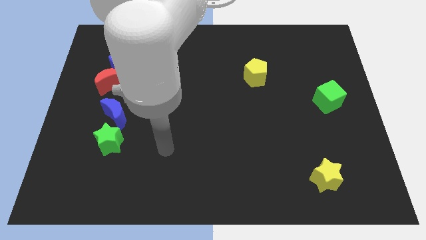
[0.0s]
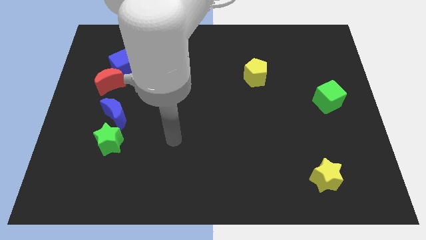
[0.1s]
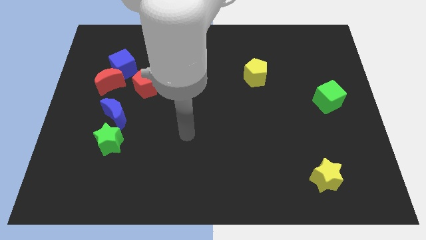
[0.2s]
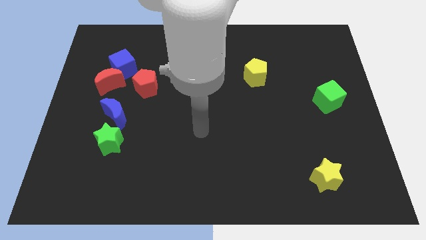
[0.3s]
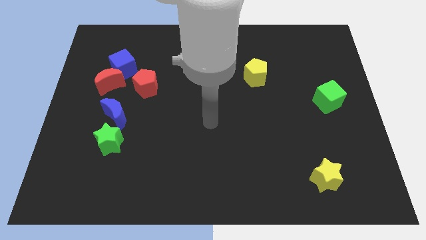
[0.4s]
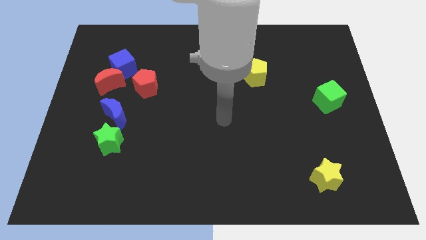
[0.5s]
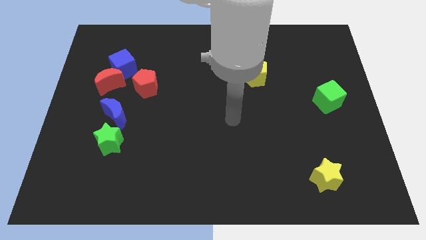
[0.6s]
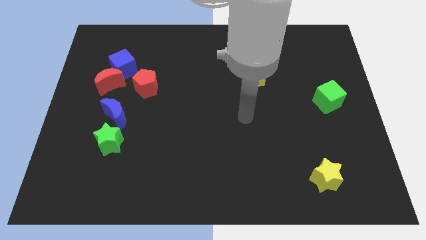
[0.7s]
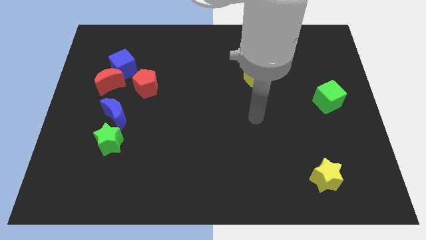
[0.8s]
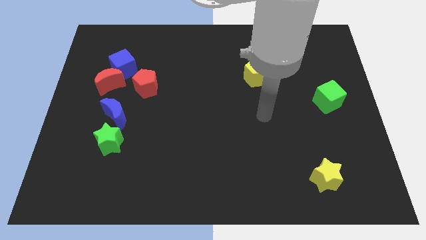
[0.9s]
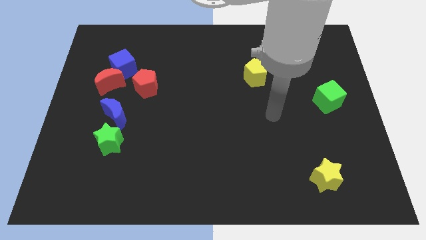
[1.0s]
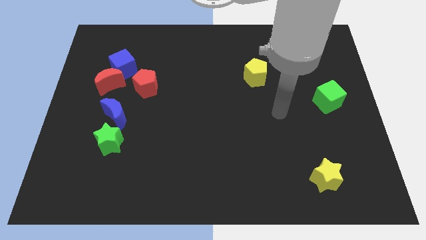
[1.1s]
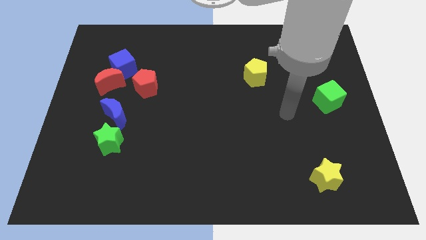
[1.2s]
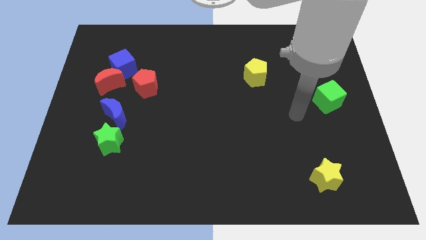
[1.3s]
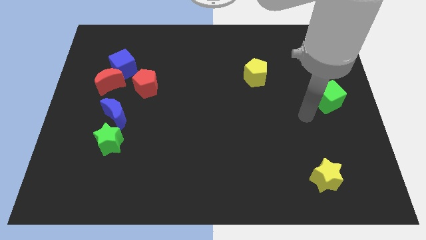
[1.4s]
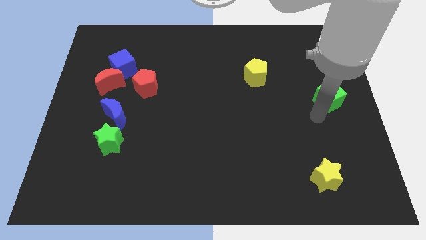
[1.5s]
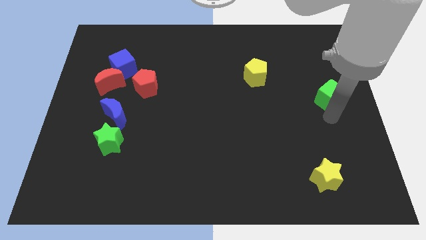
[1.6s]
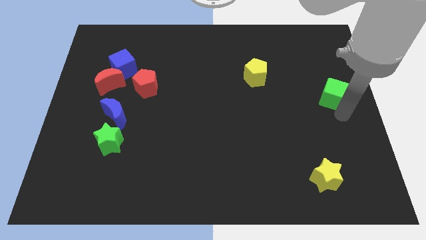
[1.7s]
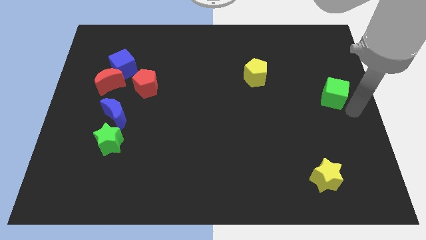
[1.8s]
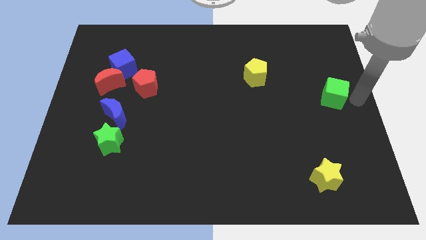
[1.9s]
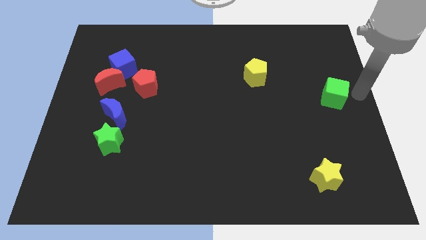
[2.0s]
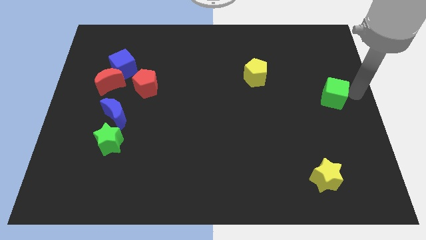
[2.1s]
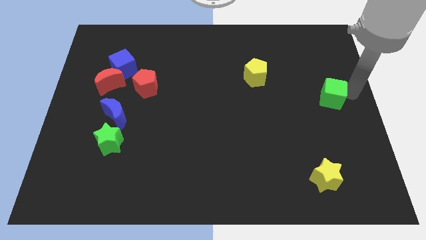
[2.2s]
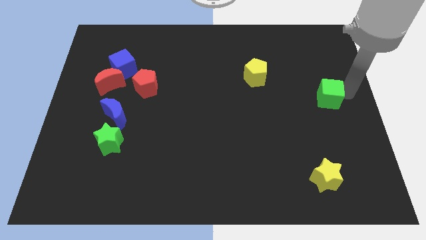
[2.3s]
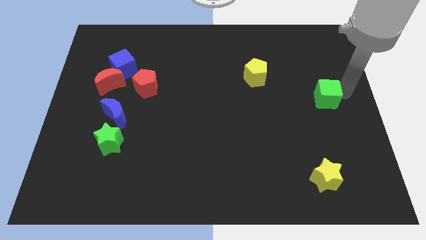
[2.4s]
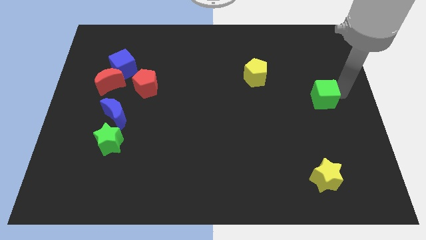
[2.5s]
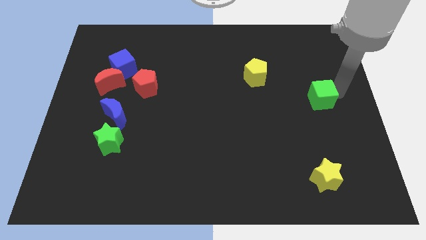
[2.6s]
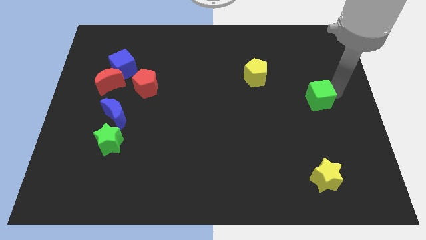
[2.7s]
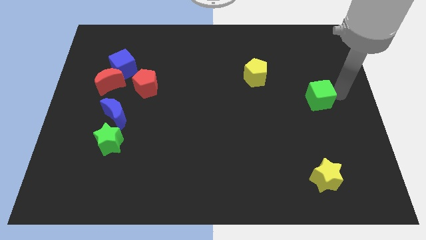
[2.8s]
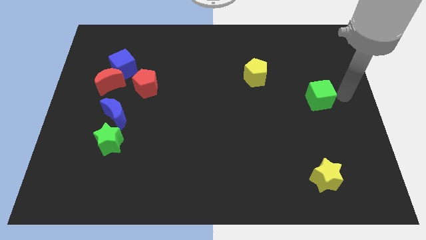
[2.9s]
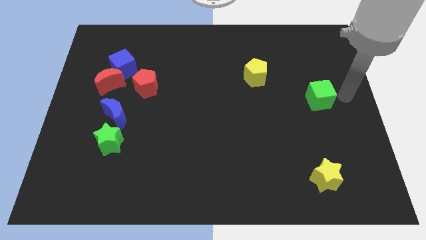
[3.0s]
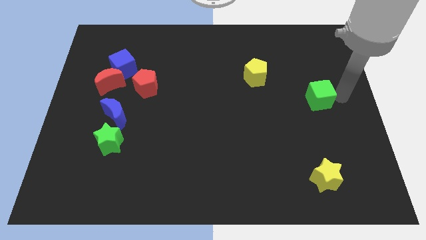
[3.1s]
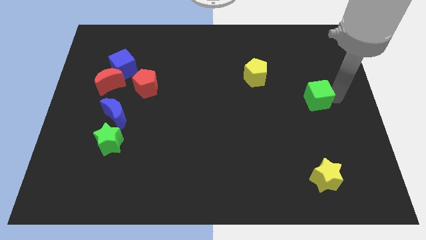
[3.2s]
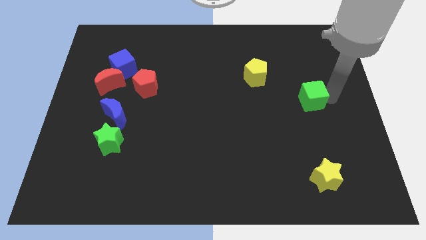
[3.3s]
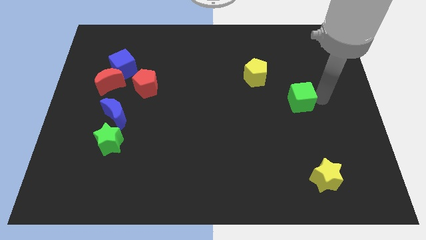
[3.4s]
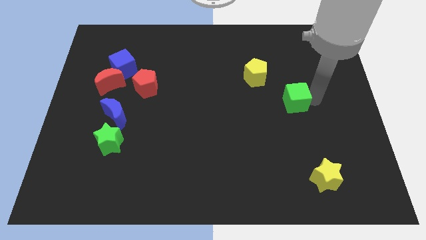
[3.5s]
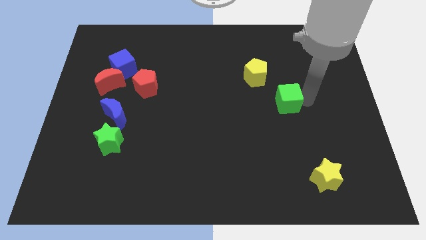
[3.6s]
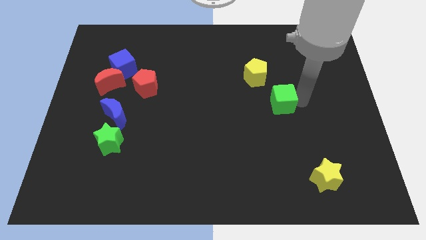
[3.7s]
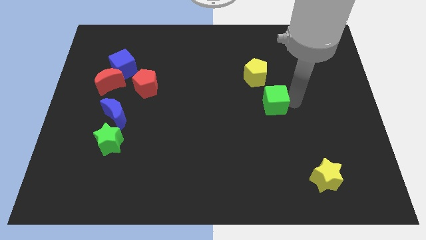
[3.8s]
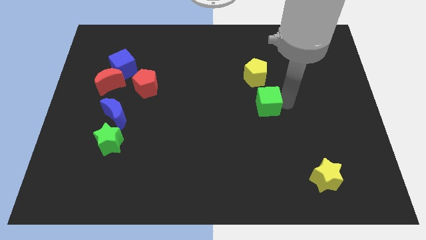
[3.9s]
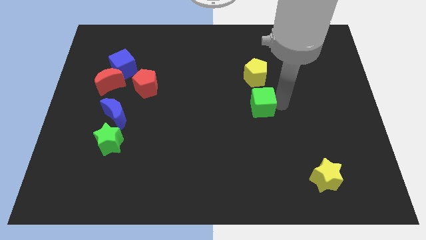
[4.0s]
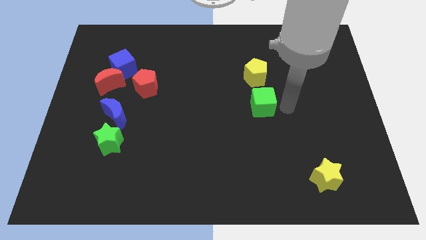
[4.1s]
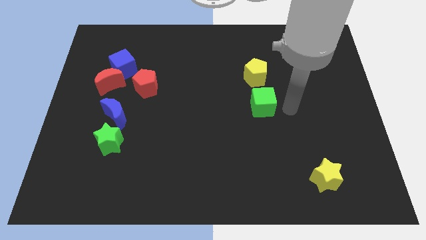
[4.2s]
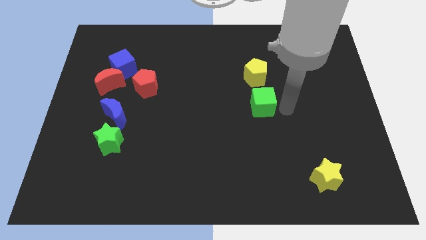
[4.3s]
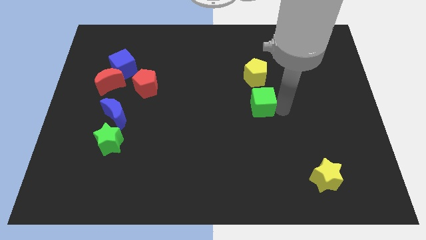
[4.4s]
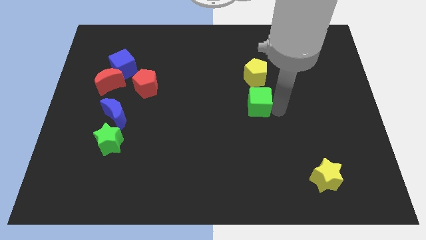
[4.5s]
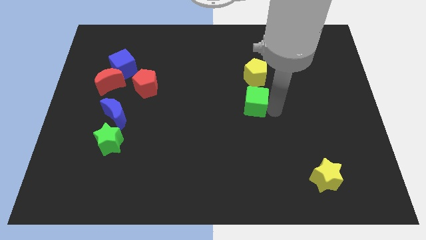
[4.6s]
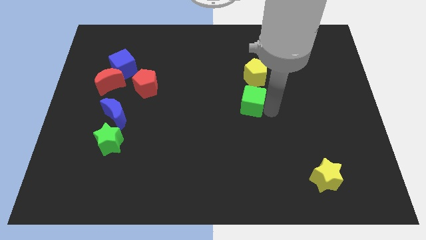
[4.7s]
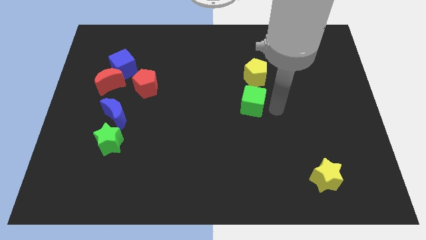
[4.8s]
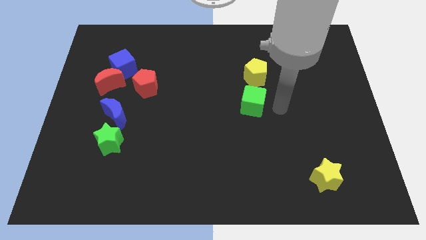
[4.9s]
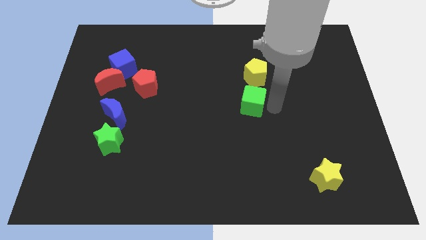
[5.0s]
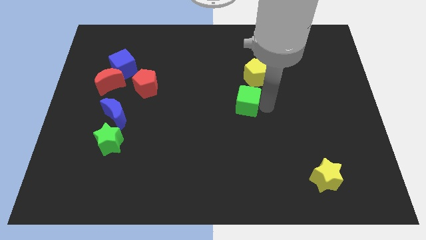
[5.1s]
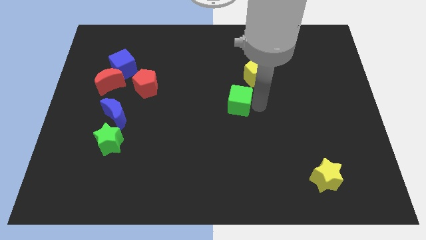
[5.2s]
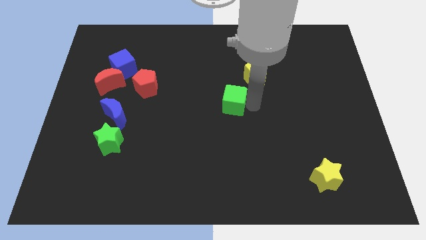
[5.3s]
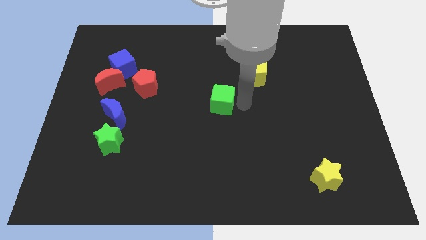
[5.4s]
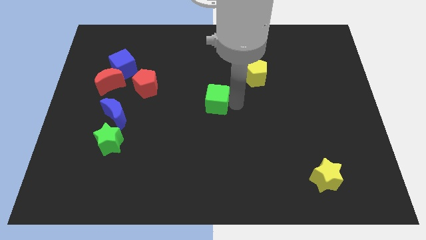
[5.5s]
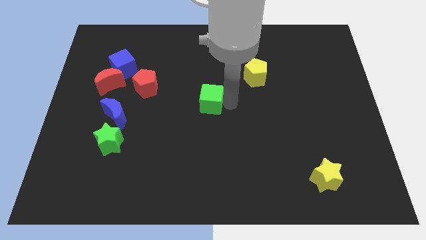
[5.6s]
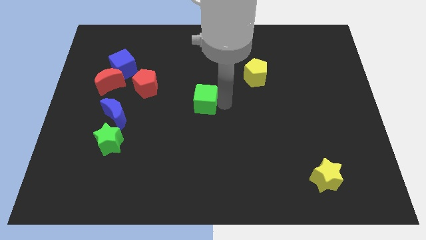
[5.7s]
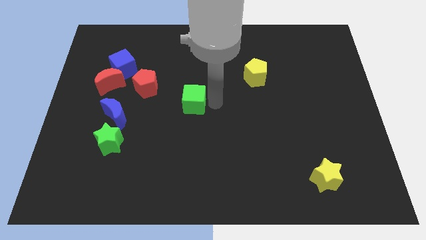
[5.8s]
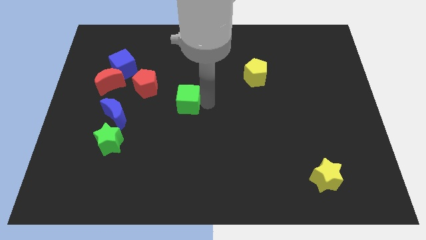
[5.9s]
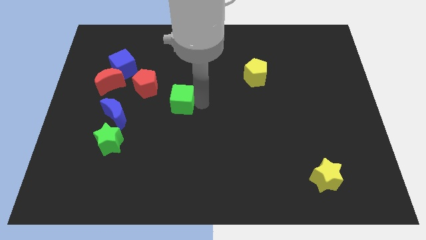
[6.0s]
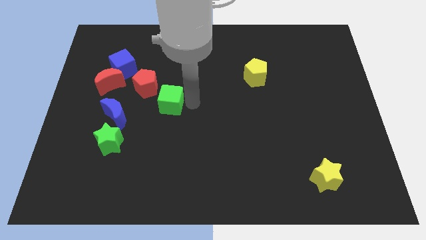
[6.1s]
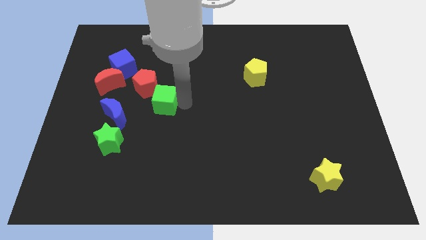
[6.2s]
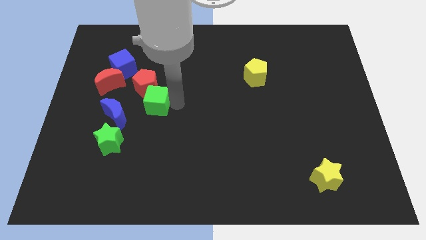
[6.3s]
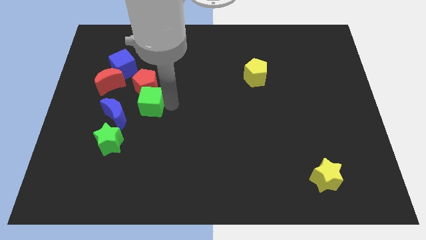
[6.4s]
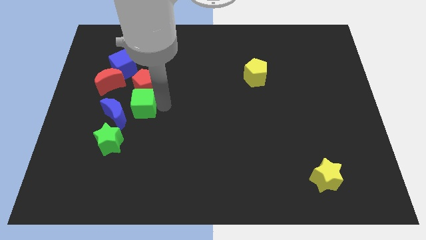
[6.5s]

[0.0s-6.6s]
push the green cube diagonally down and to the right of the red moon
